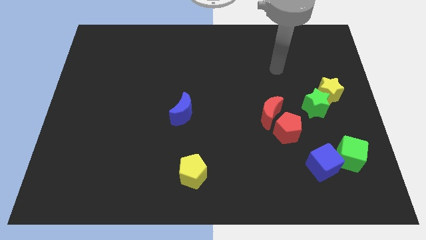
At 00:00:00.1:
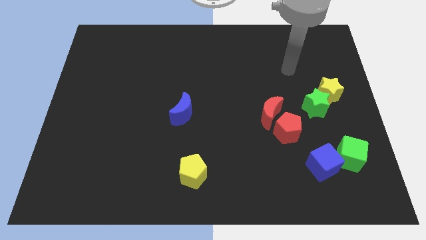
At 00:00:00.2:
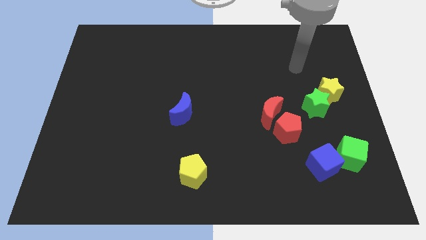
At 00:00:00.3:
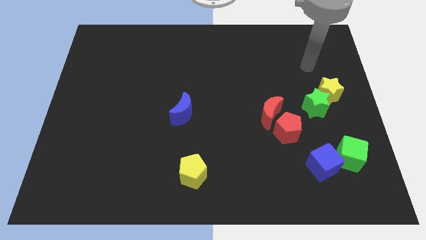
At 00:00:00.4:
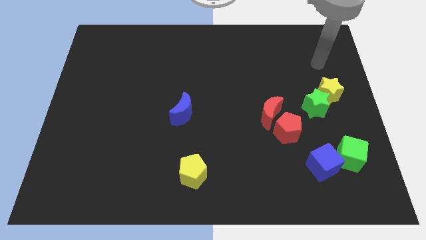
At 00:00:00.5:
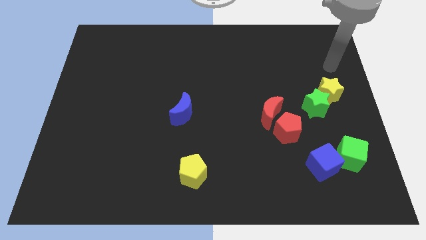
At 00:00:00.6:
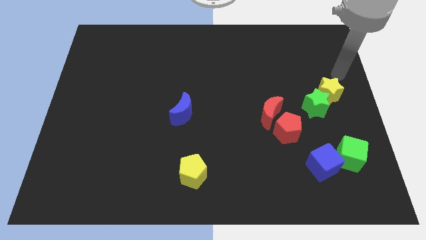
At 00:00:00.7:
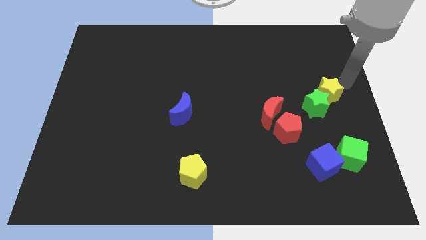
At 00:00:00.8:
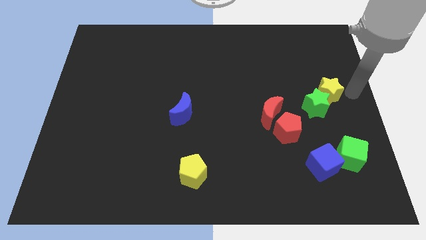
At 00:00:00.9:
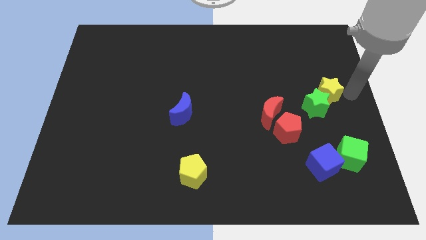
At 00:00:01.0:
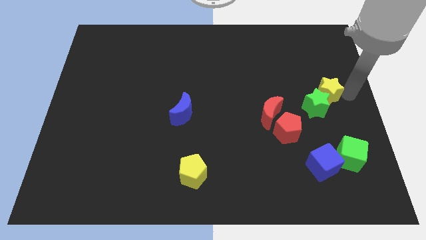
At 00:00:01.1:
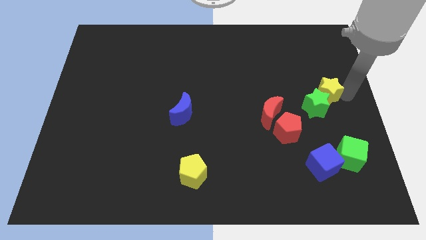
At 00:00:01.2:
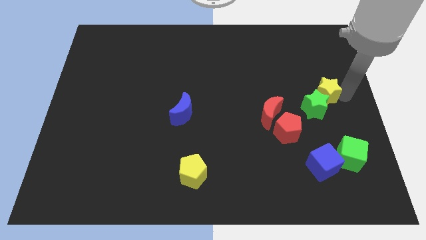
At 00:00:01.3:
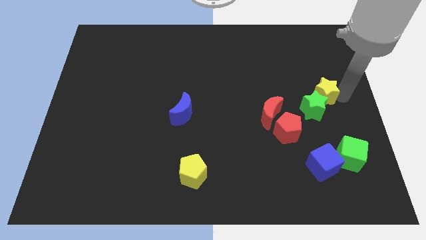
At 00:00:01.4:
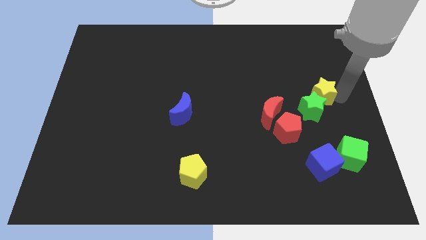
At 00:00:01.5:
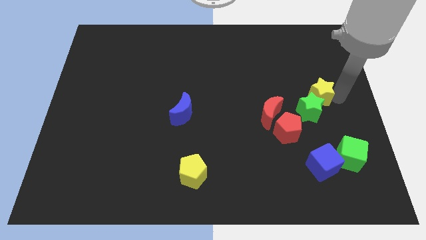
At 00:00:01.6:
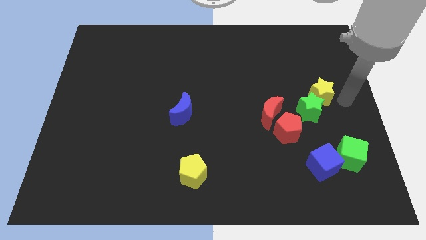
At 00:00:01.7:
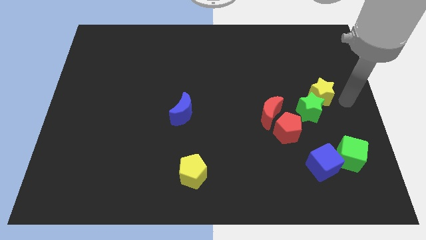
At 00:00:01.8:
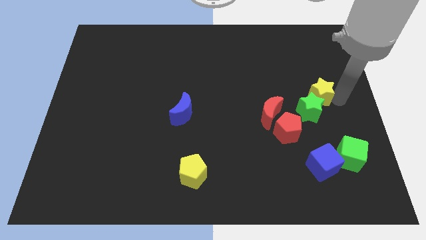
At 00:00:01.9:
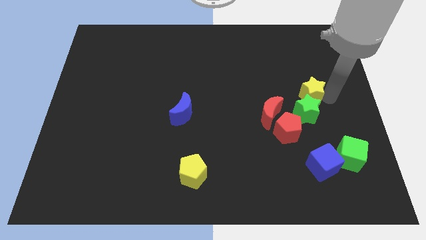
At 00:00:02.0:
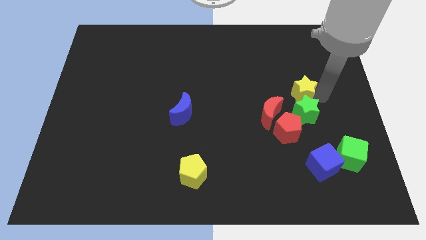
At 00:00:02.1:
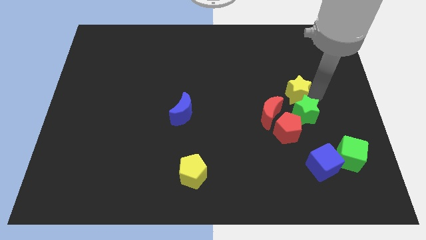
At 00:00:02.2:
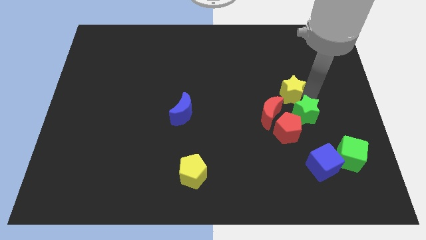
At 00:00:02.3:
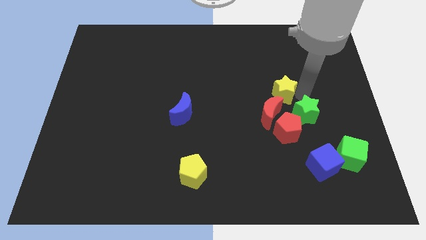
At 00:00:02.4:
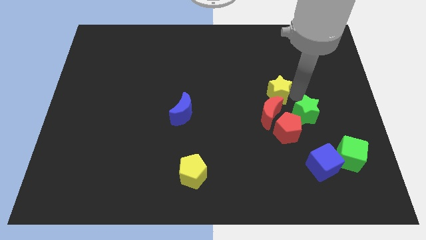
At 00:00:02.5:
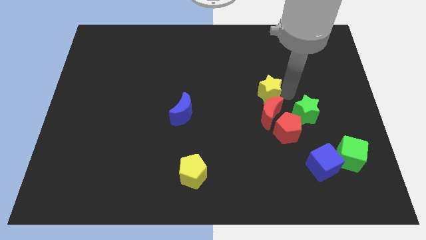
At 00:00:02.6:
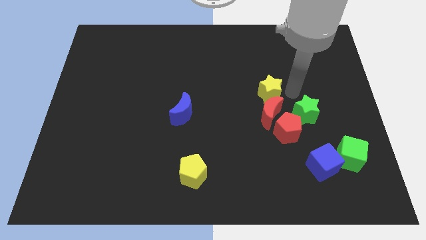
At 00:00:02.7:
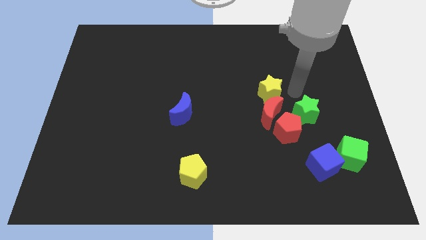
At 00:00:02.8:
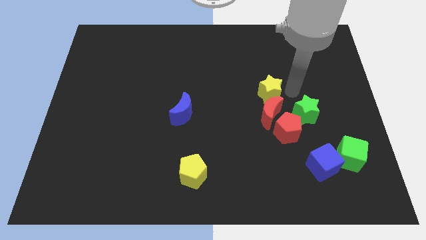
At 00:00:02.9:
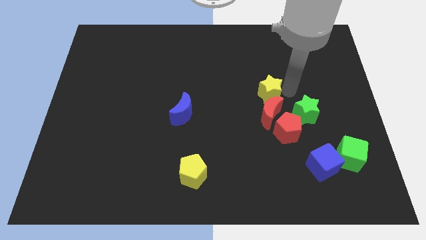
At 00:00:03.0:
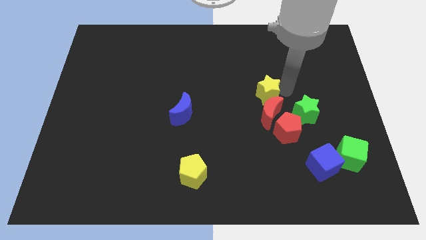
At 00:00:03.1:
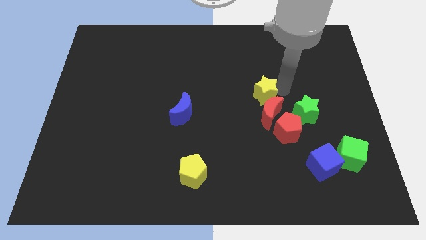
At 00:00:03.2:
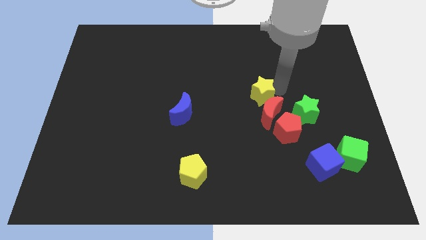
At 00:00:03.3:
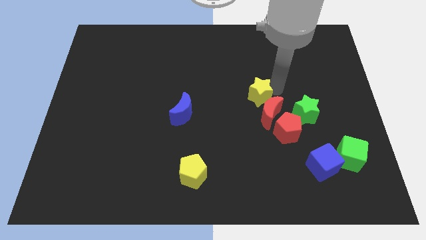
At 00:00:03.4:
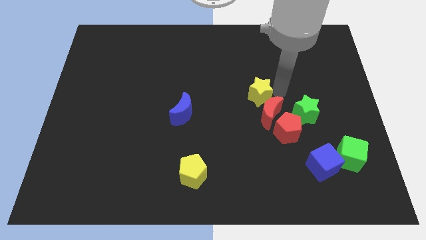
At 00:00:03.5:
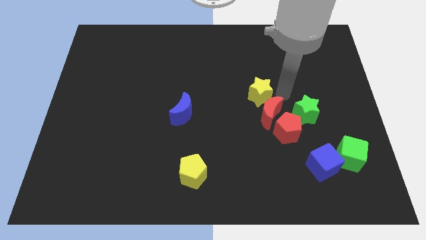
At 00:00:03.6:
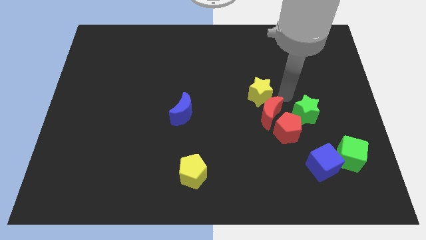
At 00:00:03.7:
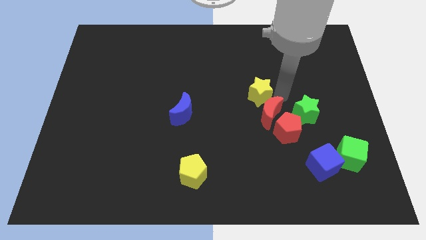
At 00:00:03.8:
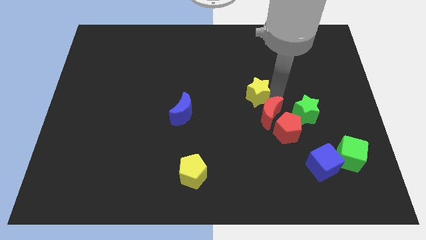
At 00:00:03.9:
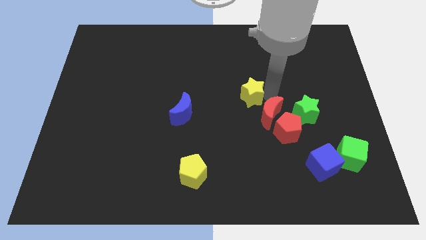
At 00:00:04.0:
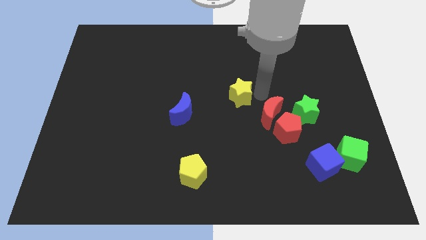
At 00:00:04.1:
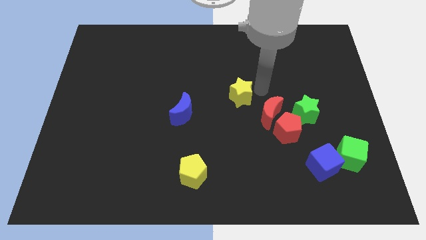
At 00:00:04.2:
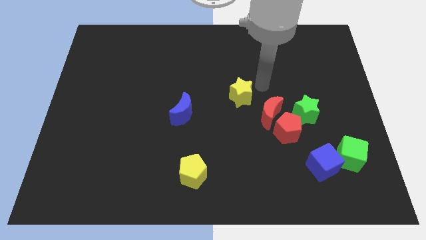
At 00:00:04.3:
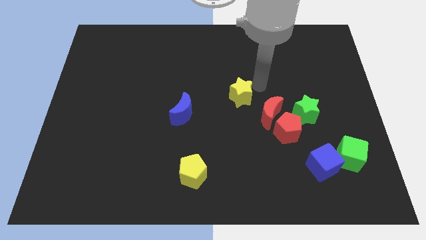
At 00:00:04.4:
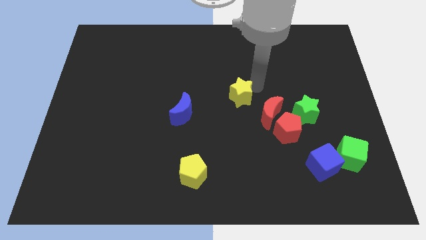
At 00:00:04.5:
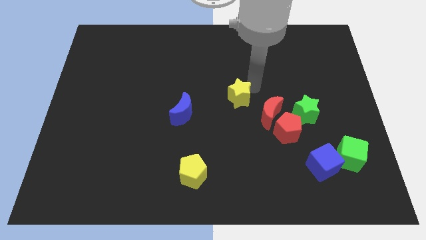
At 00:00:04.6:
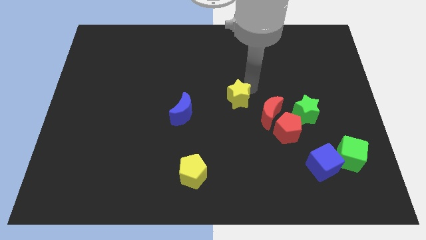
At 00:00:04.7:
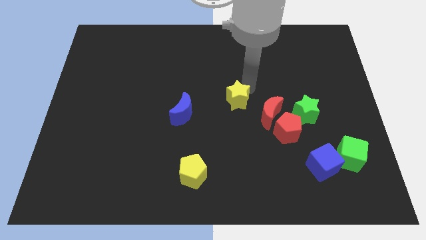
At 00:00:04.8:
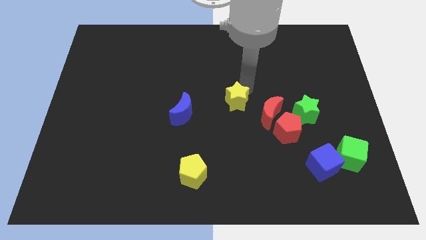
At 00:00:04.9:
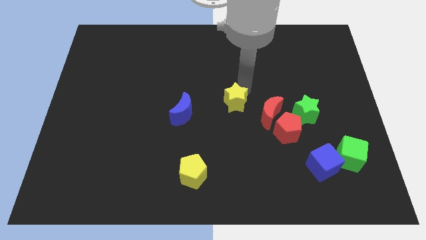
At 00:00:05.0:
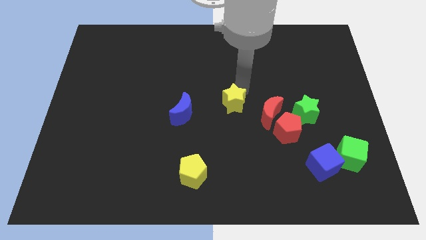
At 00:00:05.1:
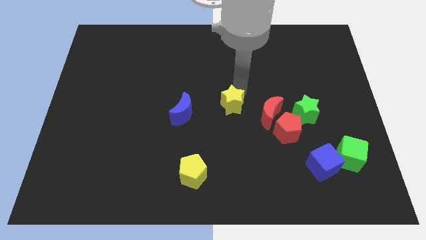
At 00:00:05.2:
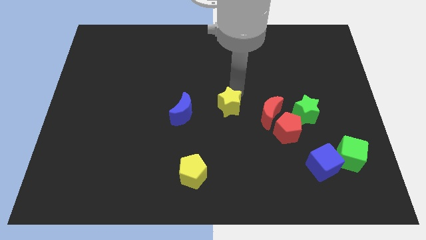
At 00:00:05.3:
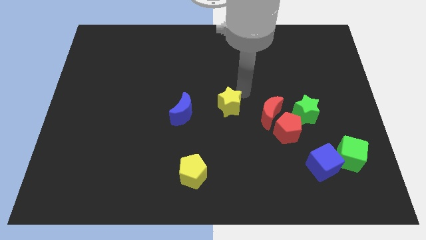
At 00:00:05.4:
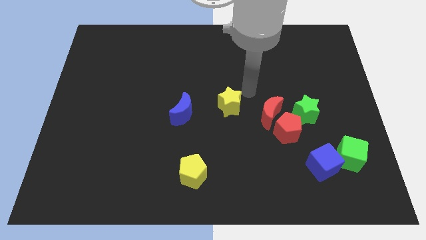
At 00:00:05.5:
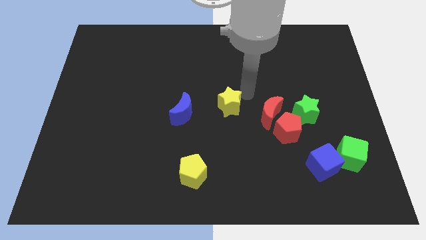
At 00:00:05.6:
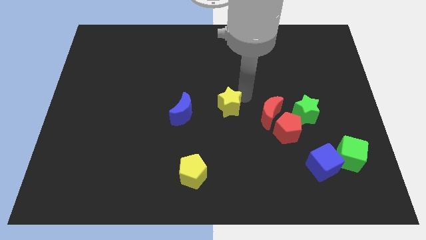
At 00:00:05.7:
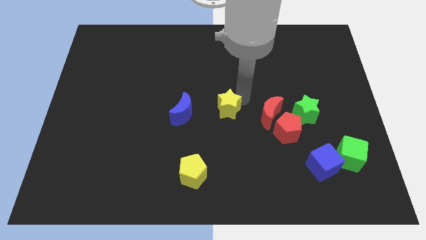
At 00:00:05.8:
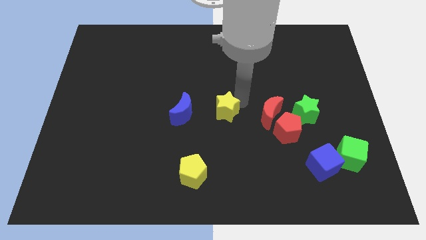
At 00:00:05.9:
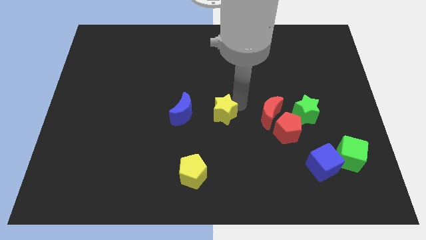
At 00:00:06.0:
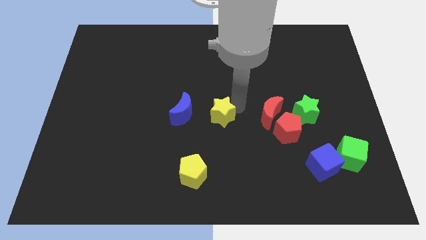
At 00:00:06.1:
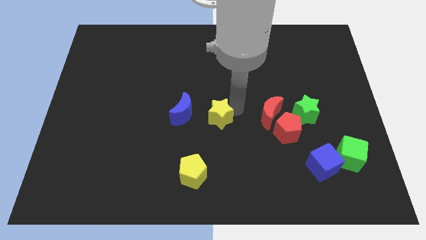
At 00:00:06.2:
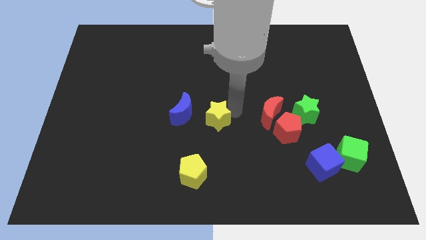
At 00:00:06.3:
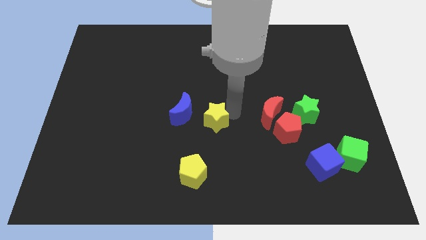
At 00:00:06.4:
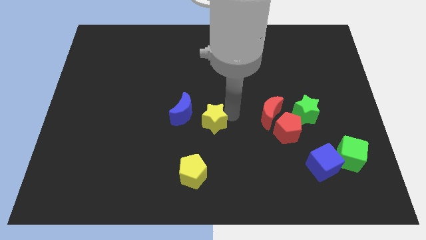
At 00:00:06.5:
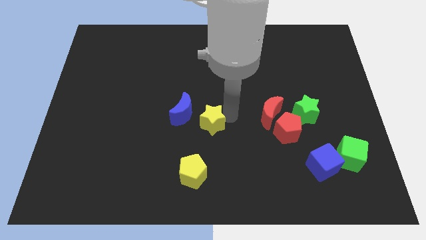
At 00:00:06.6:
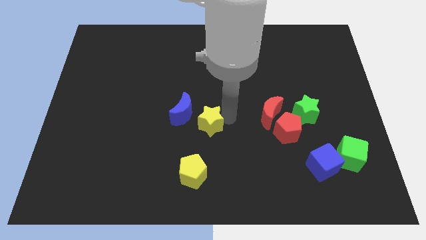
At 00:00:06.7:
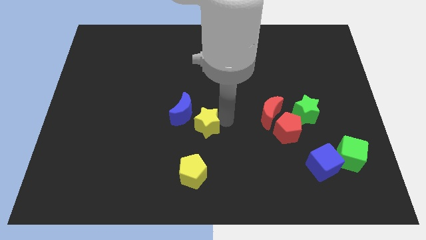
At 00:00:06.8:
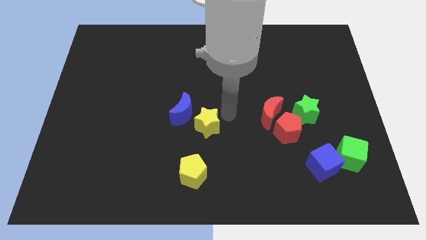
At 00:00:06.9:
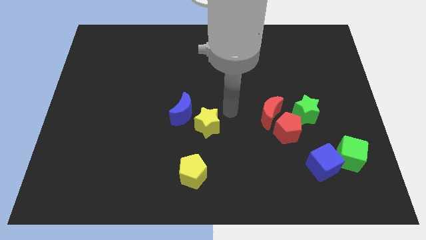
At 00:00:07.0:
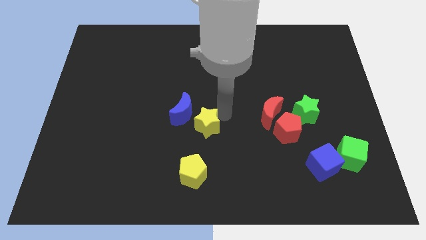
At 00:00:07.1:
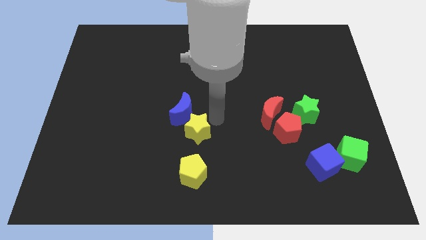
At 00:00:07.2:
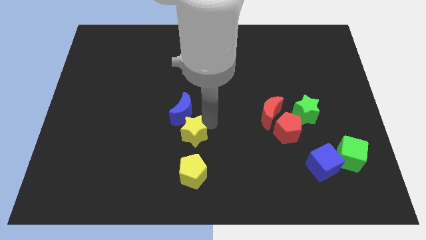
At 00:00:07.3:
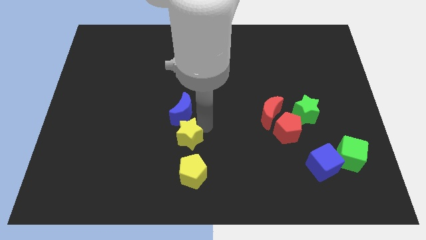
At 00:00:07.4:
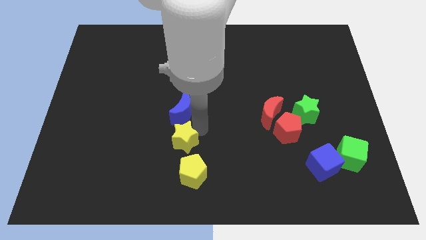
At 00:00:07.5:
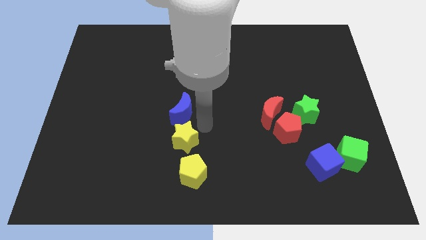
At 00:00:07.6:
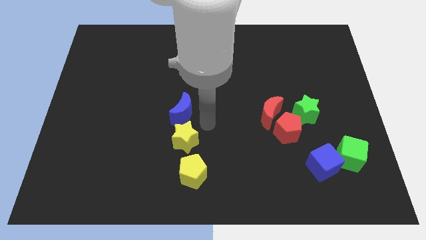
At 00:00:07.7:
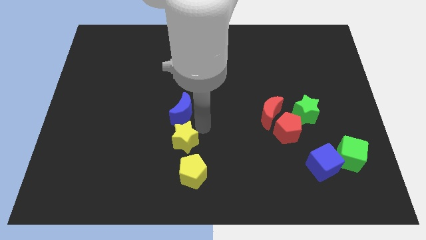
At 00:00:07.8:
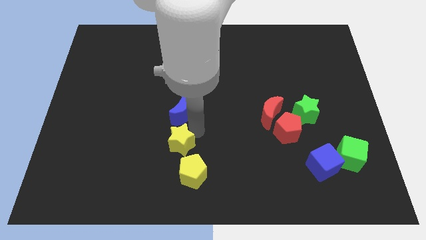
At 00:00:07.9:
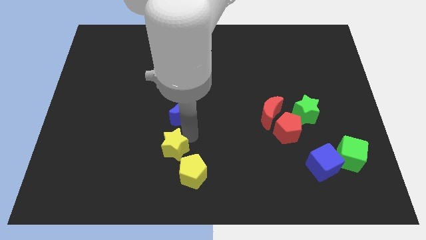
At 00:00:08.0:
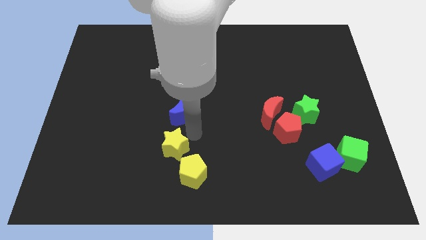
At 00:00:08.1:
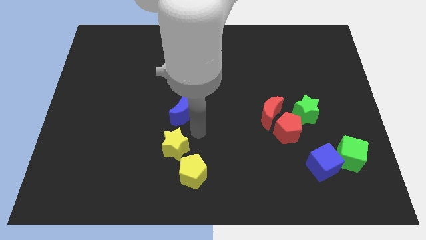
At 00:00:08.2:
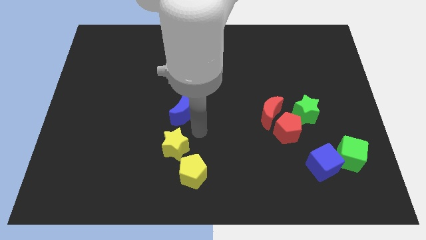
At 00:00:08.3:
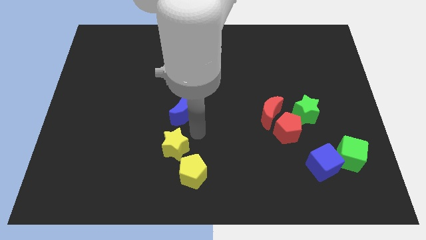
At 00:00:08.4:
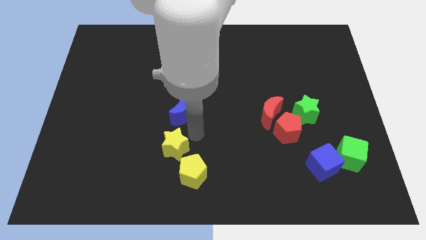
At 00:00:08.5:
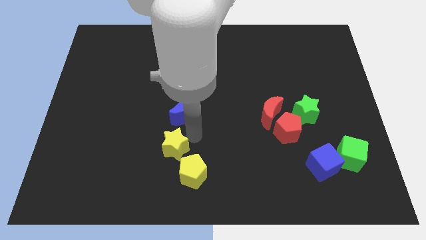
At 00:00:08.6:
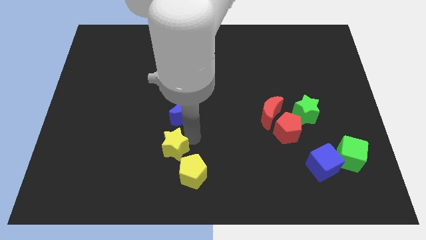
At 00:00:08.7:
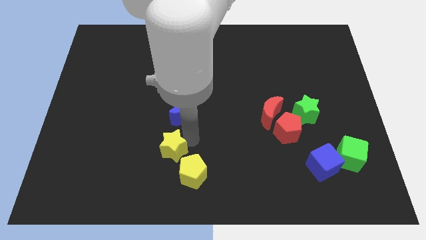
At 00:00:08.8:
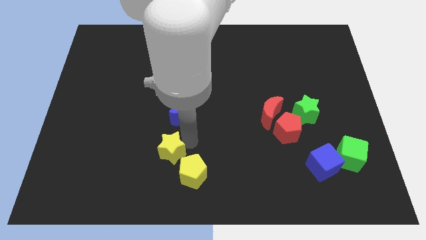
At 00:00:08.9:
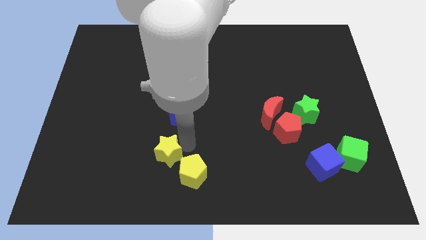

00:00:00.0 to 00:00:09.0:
slide the yellow star left of the yellow pentagon
